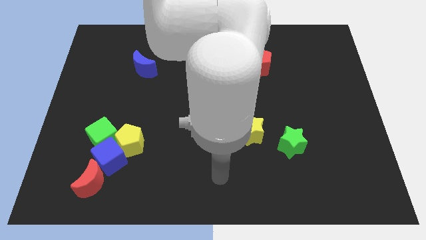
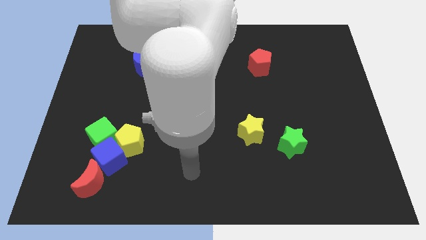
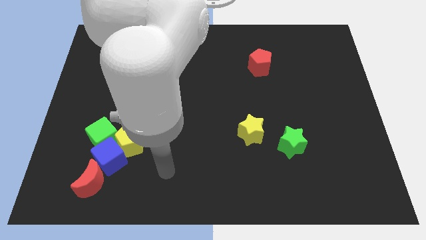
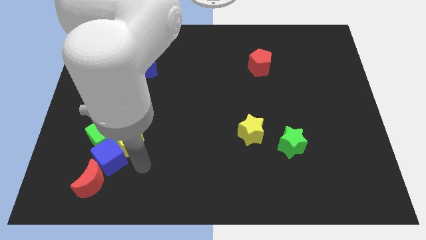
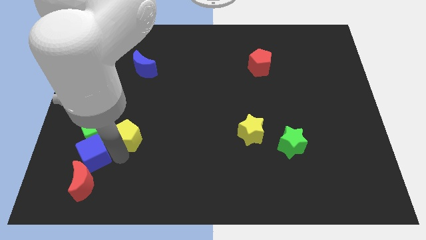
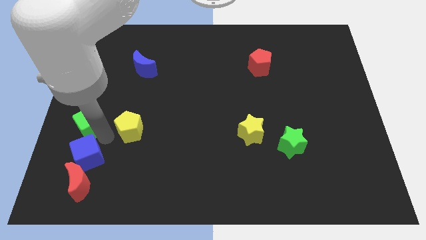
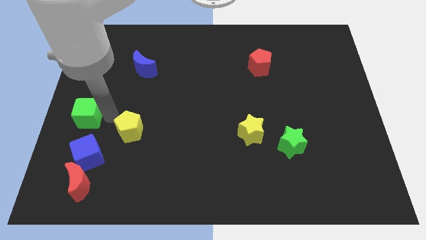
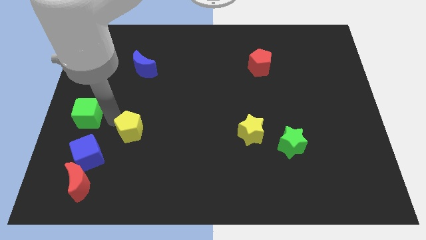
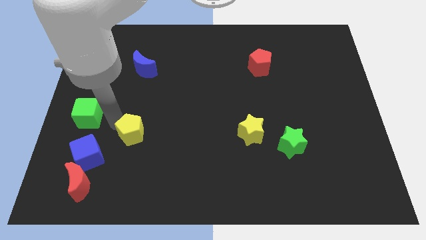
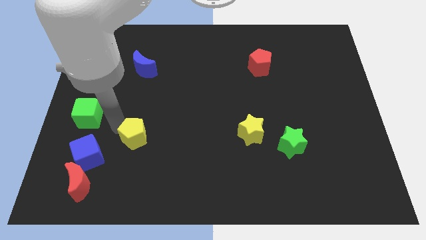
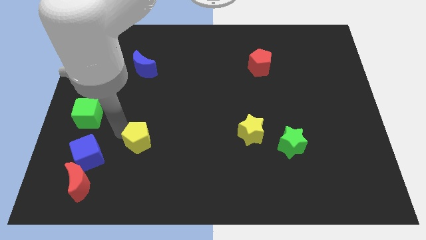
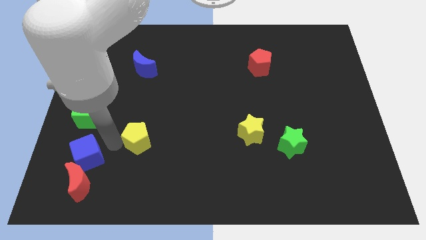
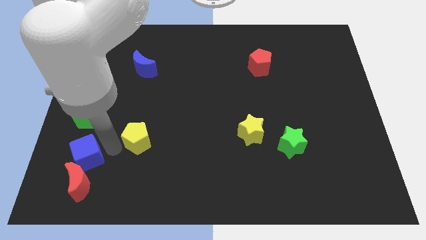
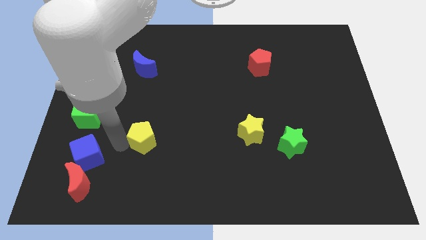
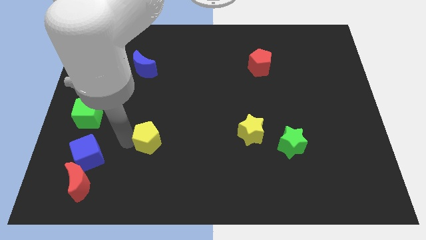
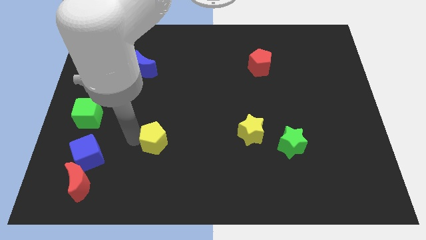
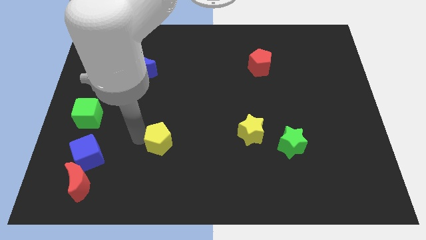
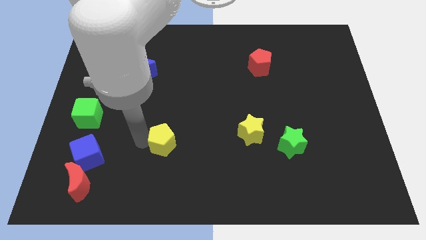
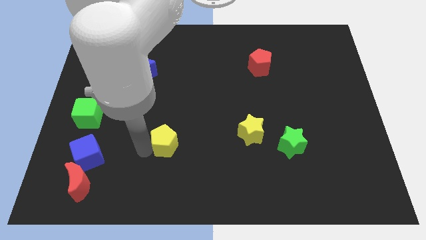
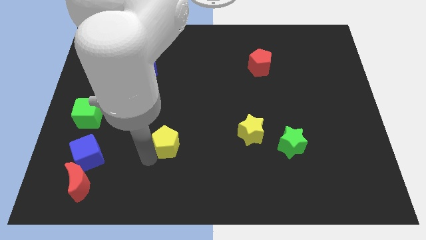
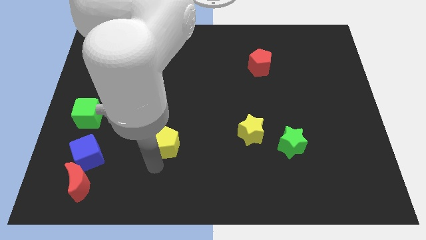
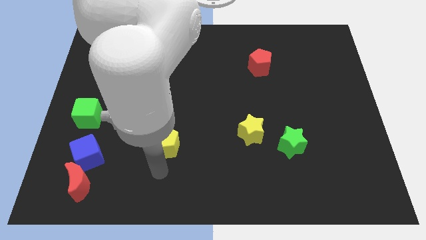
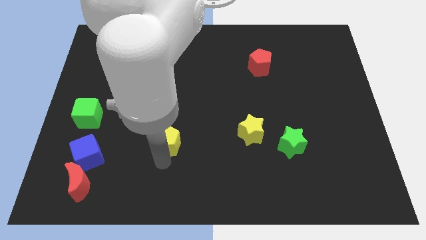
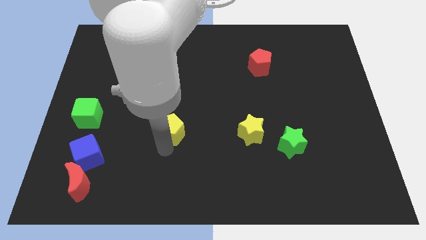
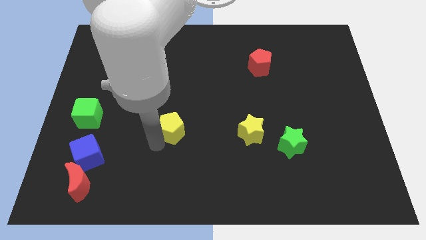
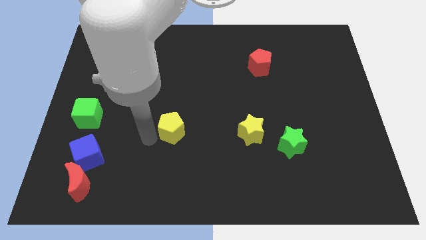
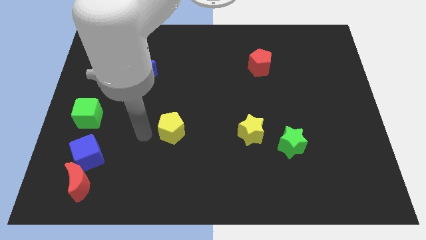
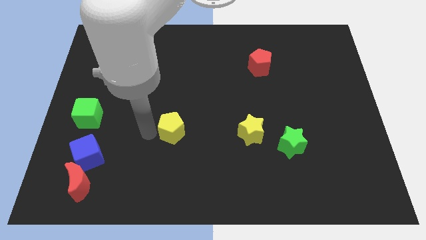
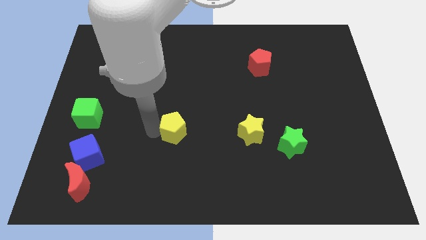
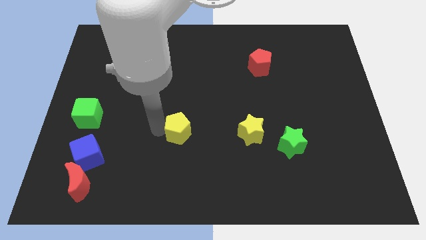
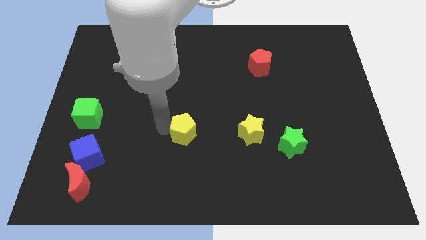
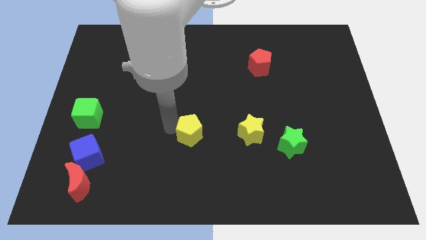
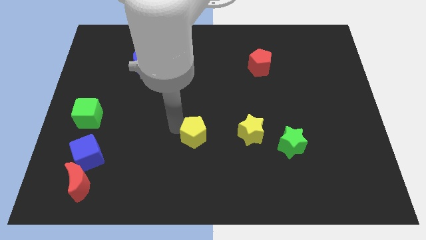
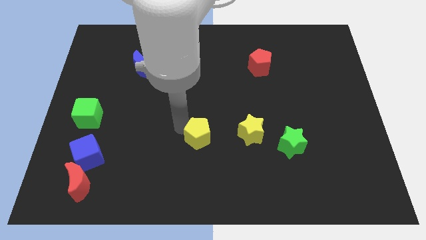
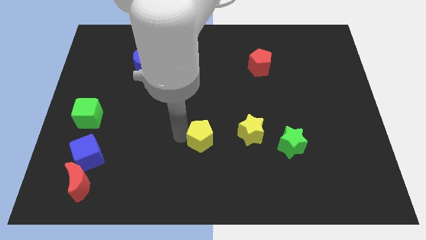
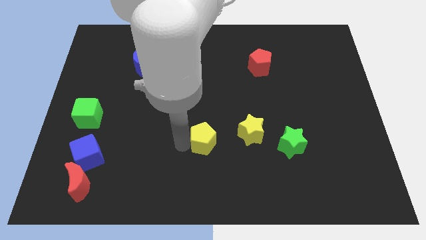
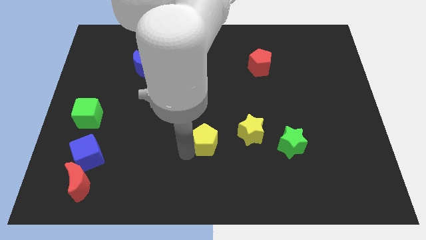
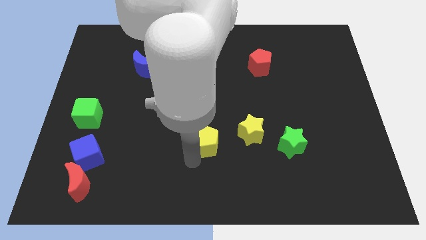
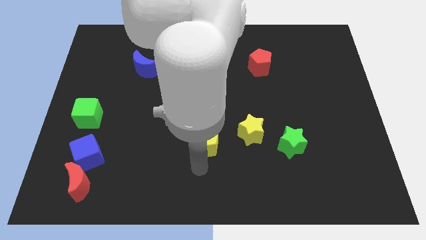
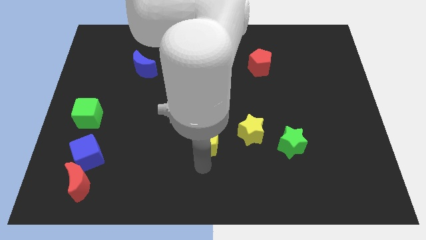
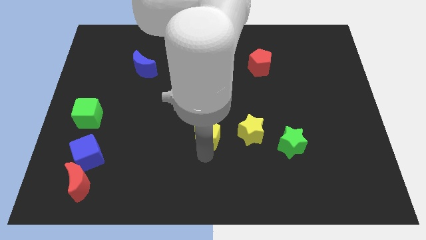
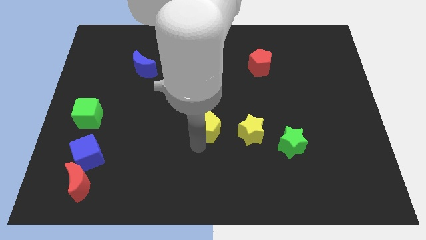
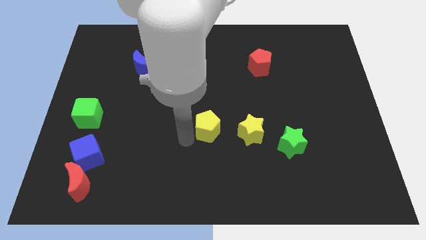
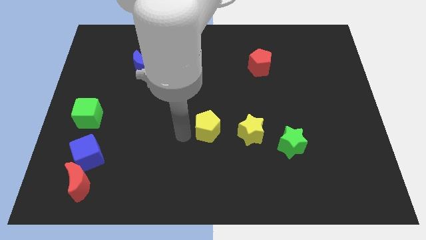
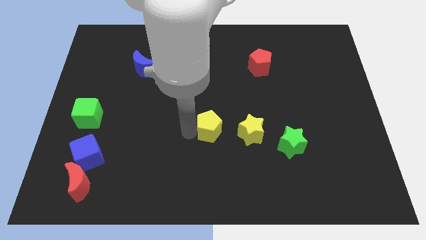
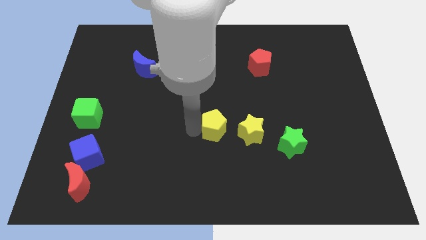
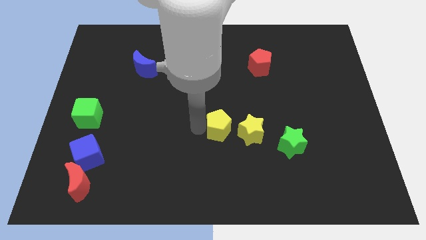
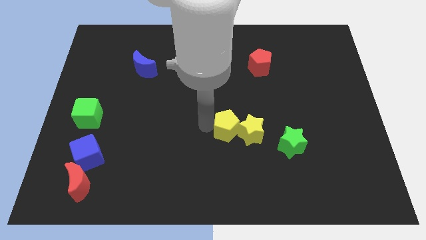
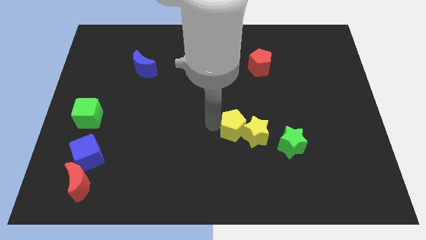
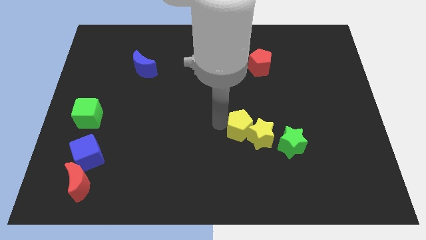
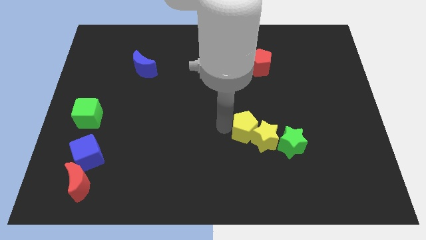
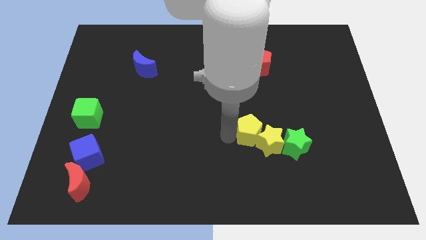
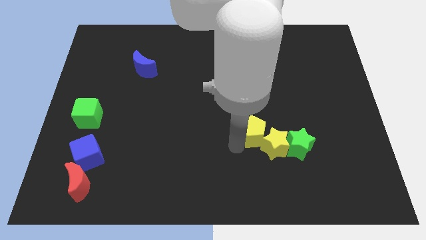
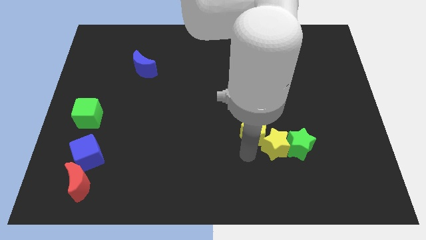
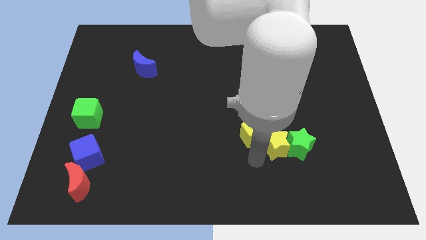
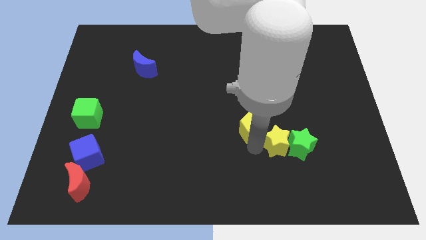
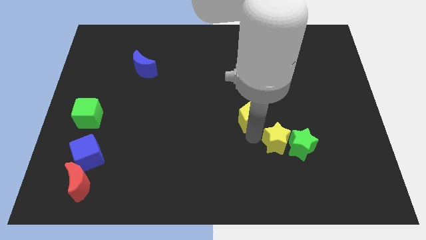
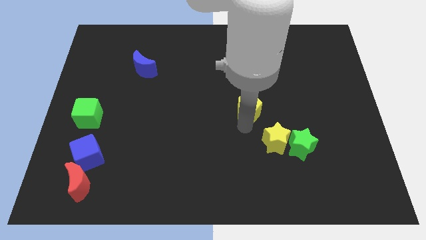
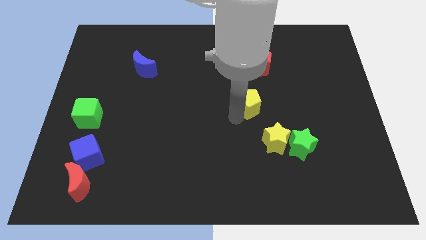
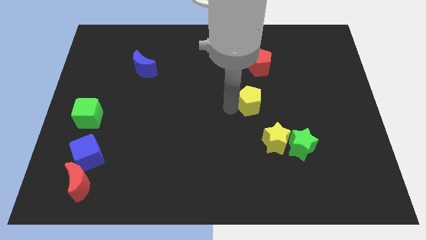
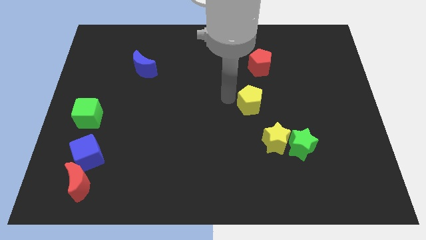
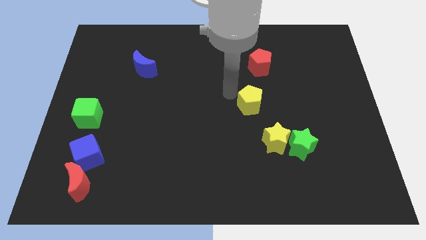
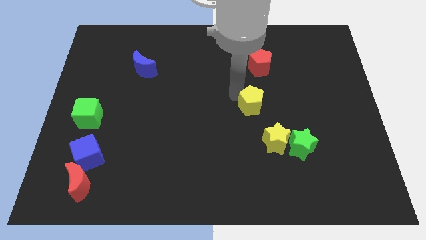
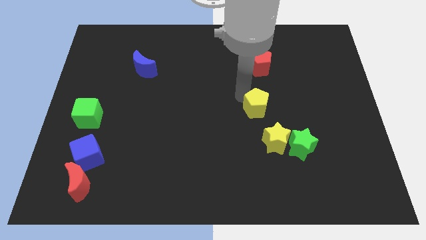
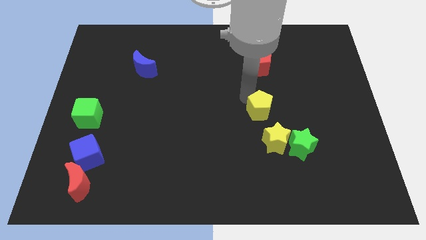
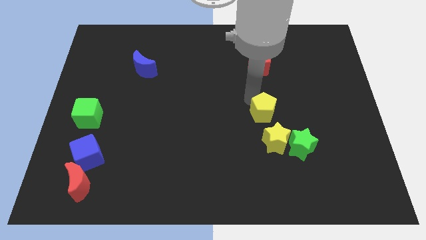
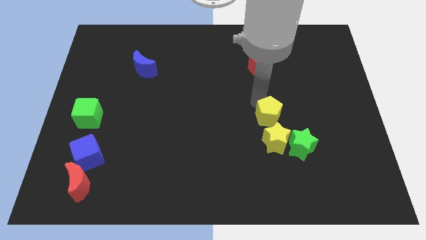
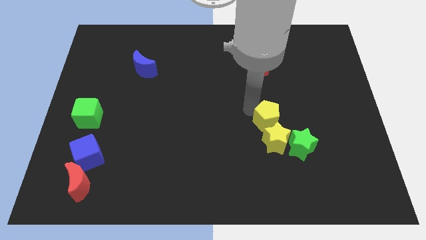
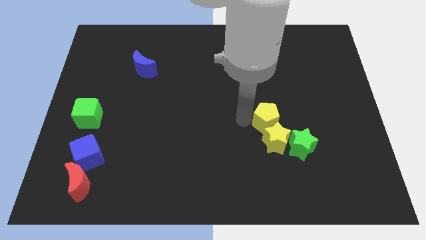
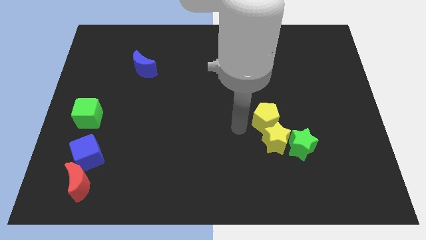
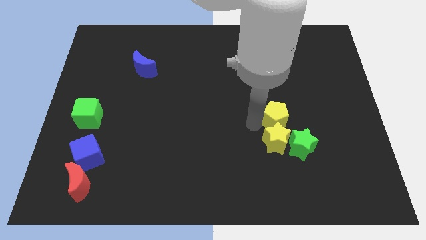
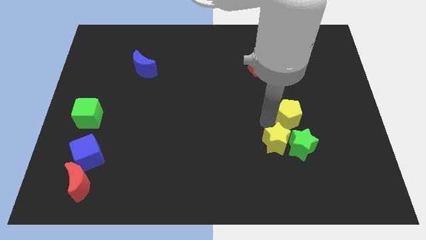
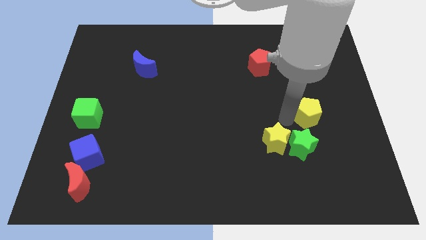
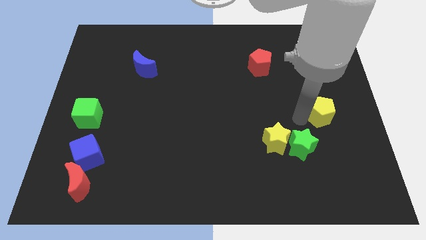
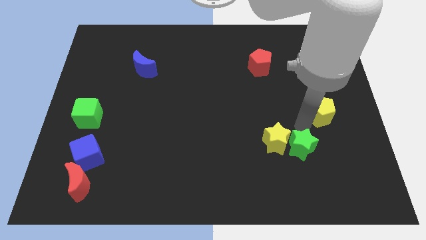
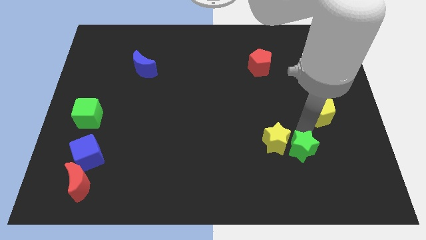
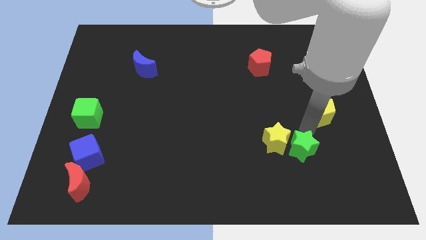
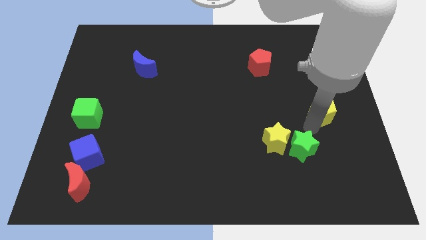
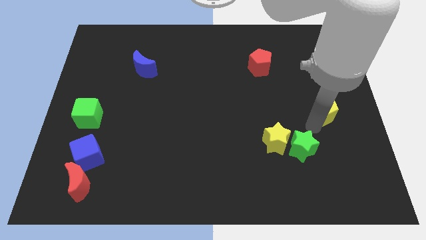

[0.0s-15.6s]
put the yellow pentagon to the center right

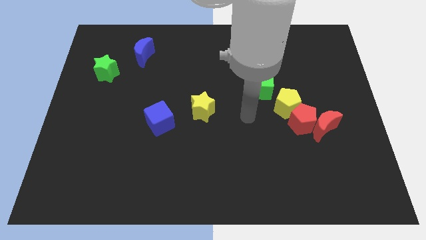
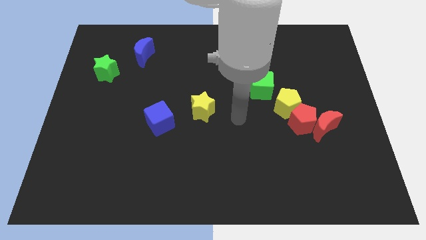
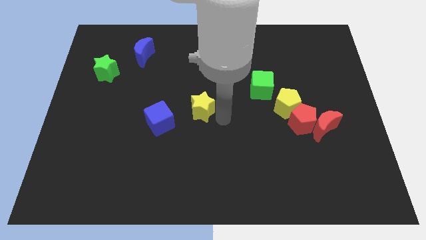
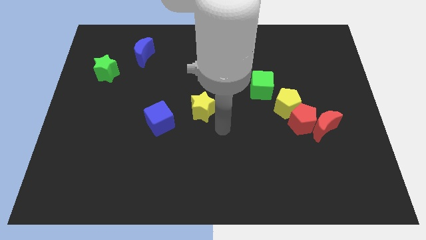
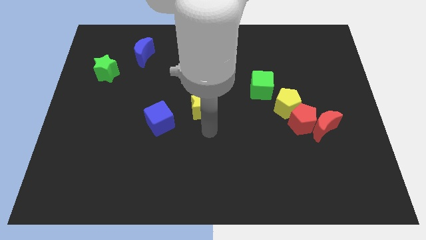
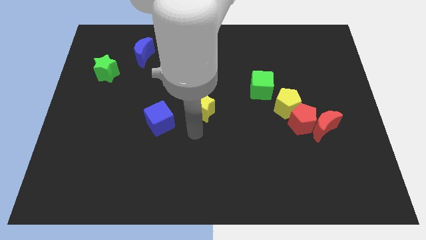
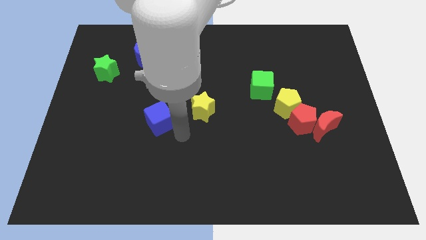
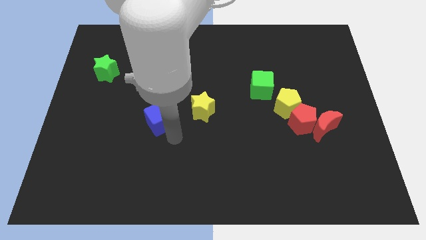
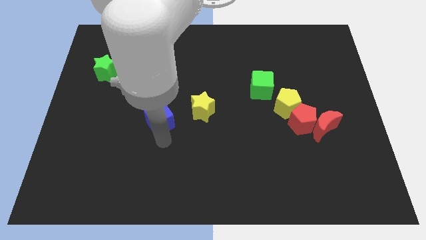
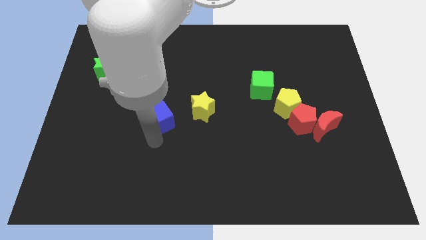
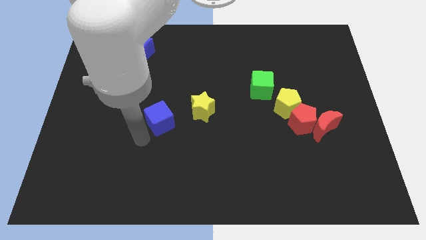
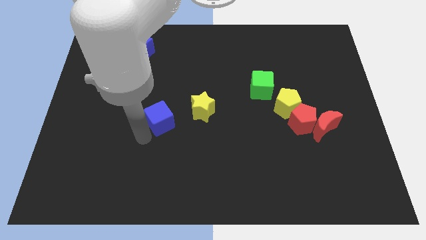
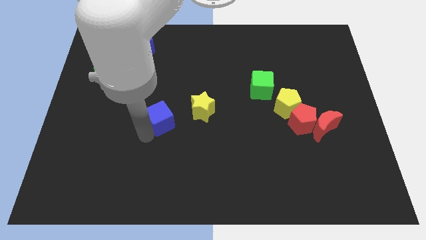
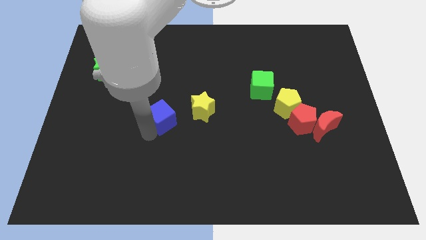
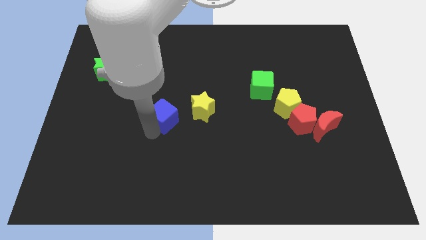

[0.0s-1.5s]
put the blue cube to the middle of the board
